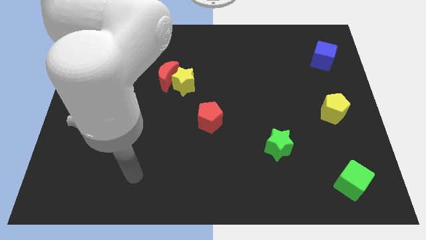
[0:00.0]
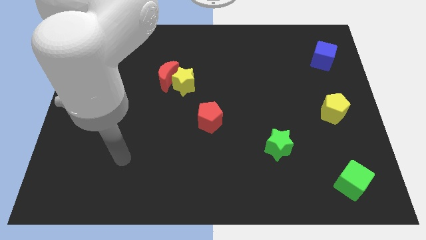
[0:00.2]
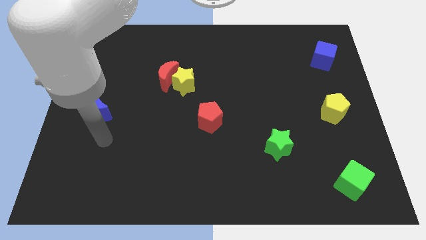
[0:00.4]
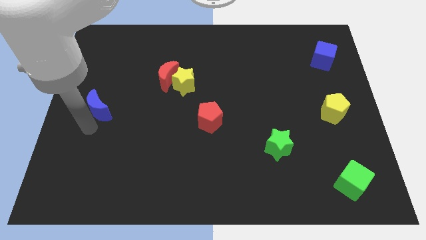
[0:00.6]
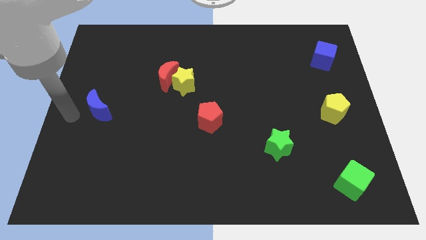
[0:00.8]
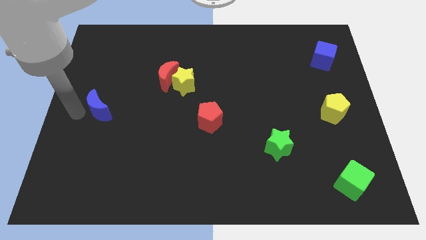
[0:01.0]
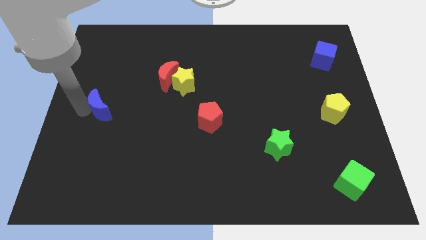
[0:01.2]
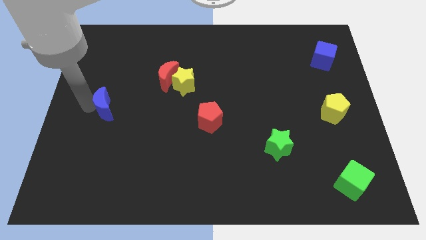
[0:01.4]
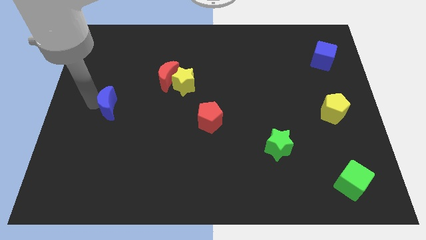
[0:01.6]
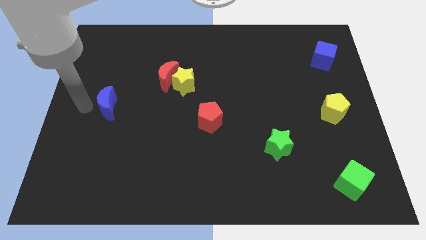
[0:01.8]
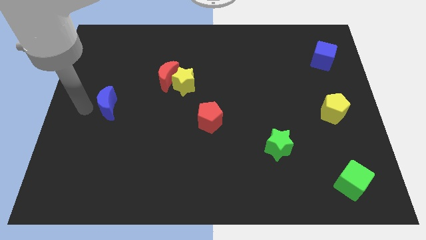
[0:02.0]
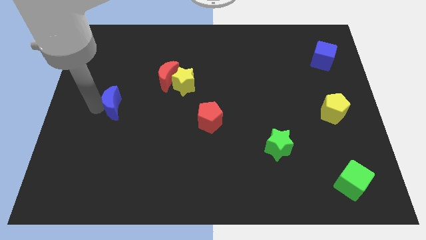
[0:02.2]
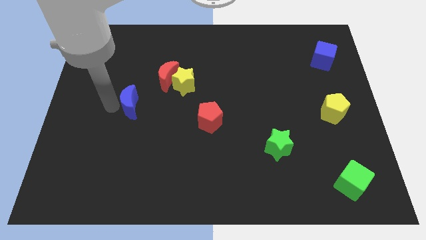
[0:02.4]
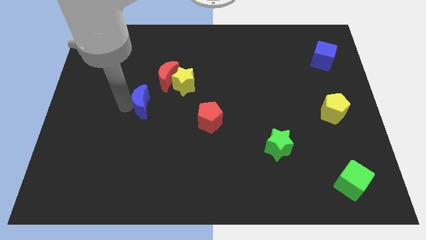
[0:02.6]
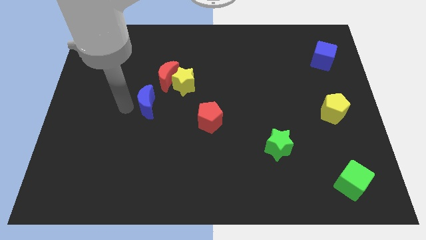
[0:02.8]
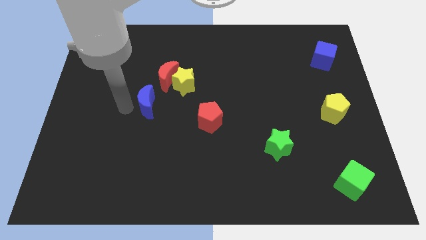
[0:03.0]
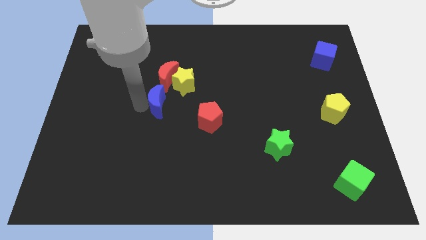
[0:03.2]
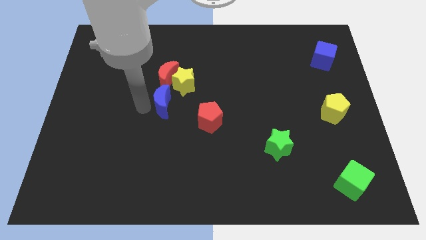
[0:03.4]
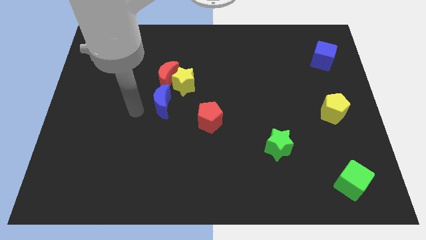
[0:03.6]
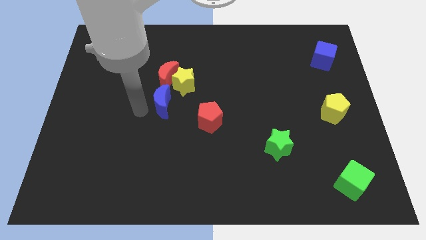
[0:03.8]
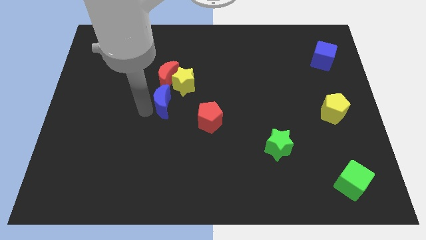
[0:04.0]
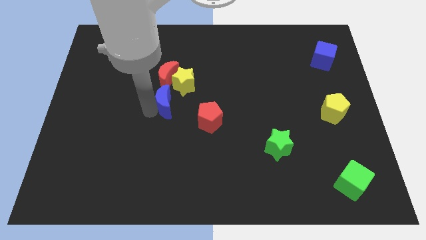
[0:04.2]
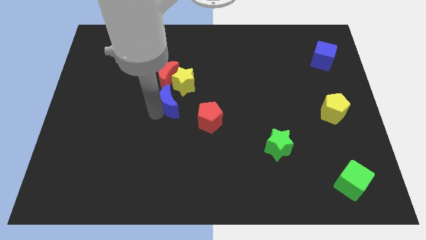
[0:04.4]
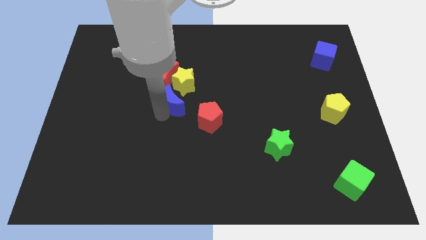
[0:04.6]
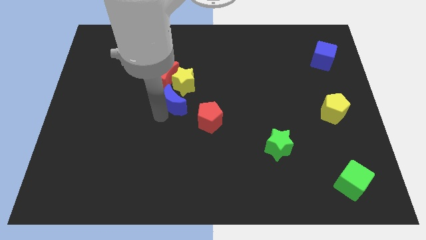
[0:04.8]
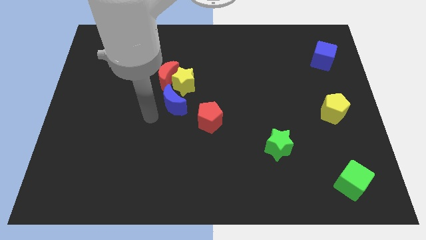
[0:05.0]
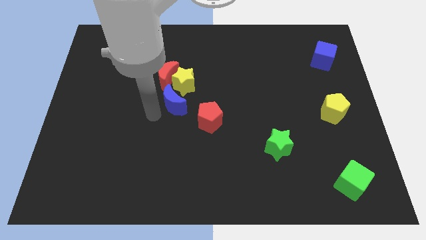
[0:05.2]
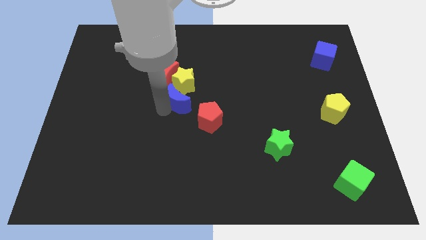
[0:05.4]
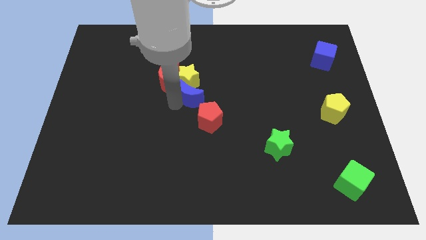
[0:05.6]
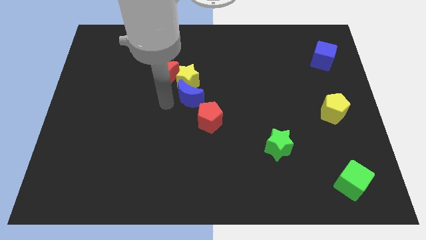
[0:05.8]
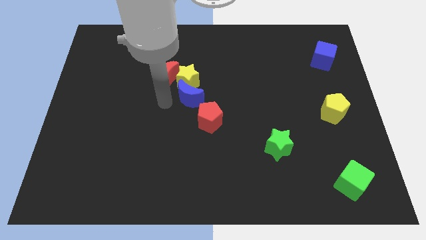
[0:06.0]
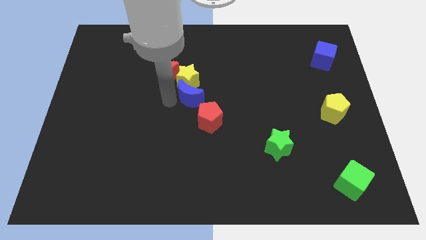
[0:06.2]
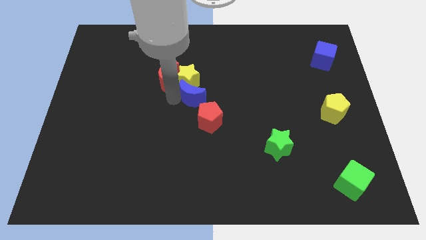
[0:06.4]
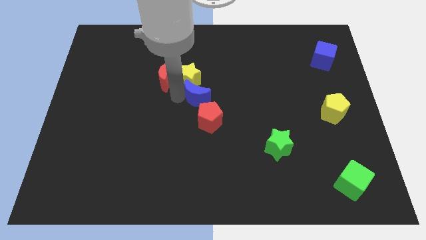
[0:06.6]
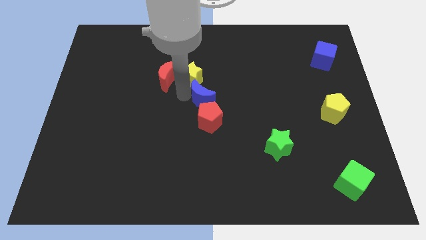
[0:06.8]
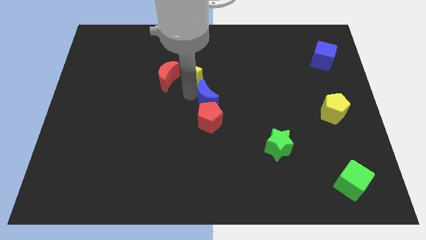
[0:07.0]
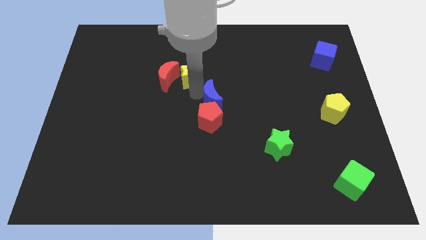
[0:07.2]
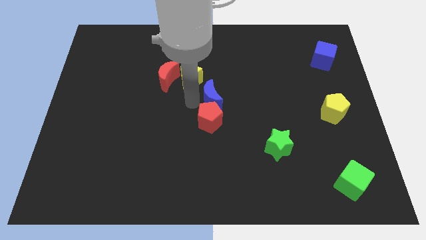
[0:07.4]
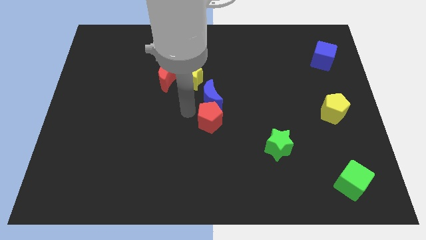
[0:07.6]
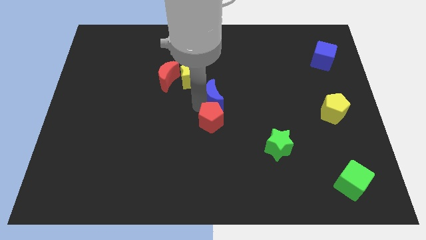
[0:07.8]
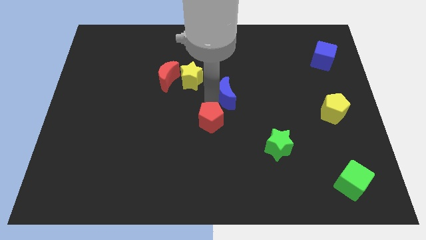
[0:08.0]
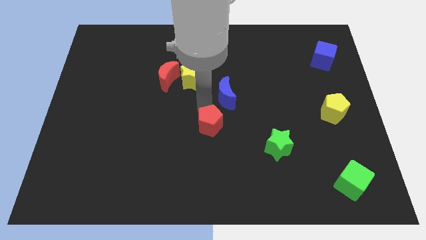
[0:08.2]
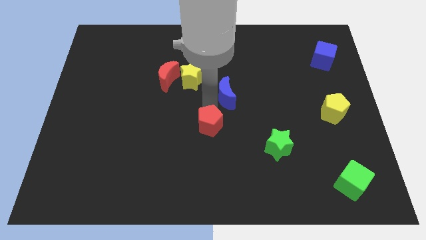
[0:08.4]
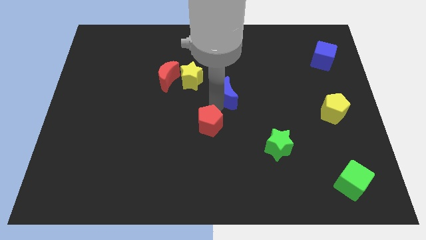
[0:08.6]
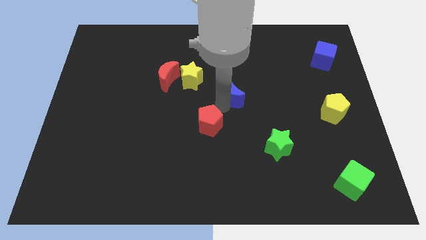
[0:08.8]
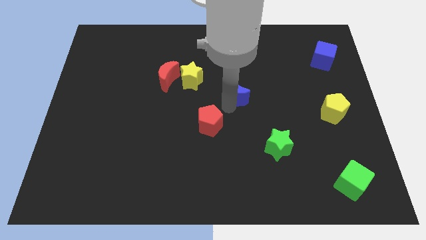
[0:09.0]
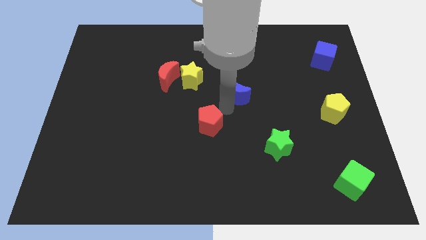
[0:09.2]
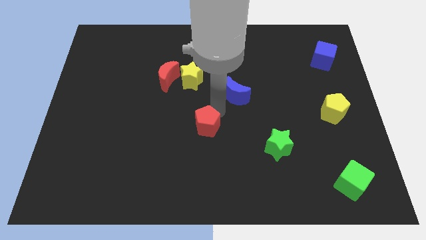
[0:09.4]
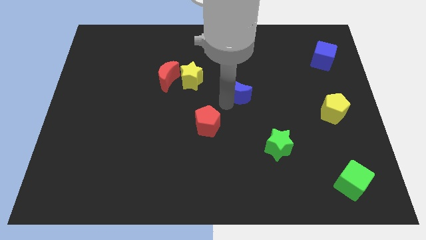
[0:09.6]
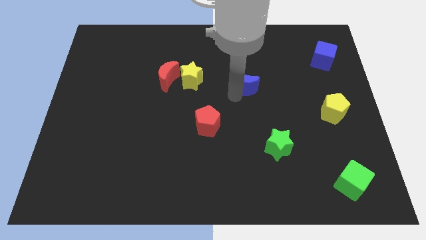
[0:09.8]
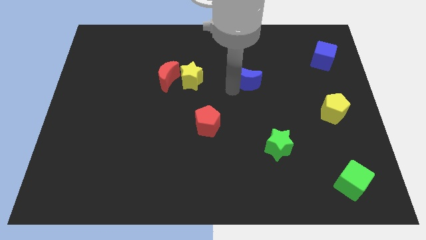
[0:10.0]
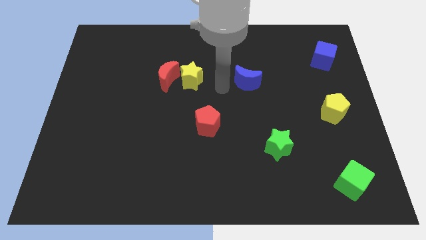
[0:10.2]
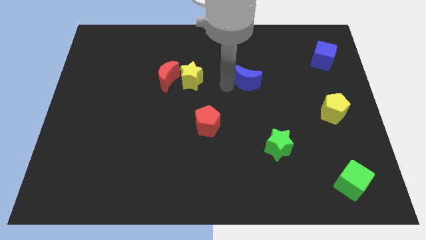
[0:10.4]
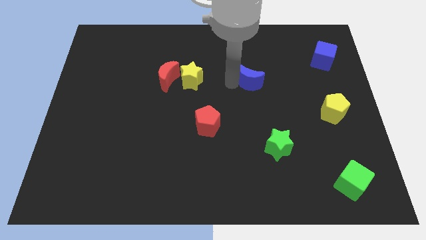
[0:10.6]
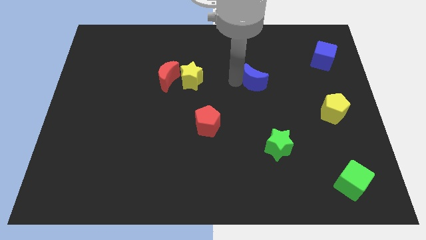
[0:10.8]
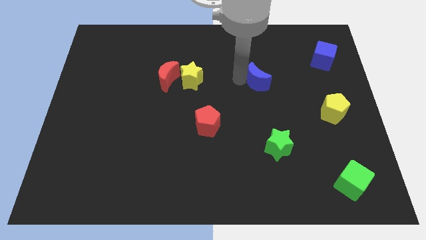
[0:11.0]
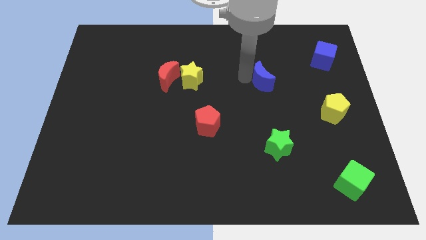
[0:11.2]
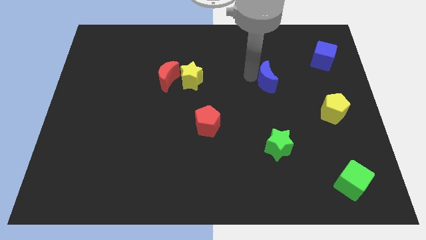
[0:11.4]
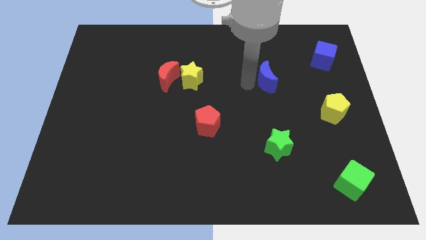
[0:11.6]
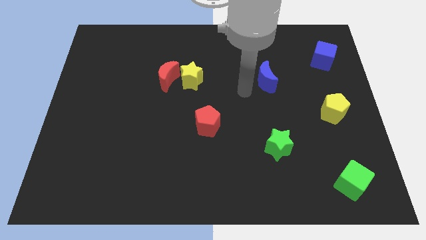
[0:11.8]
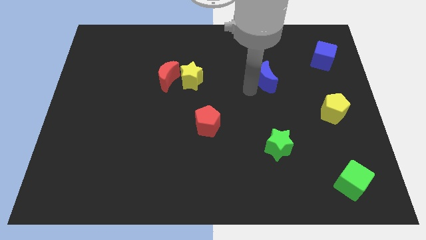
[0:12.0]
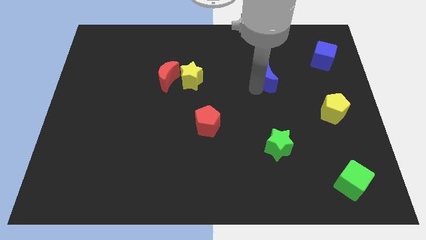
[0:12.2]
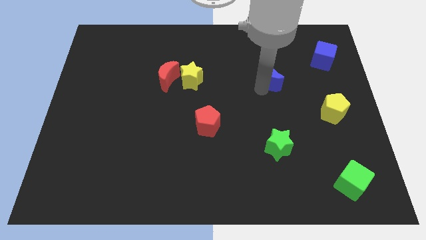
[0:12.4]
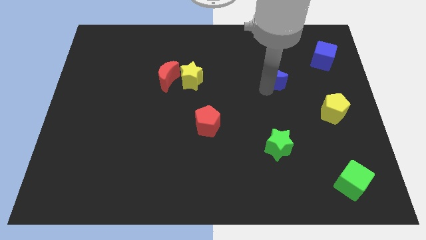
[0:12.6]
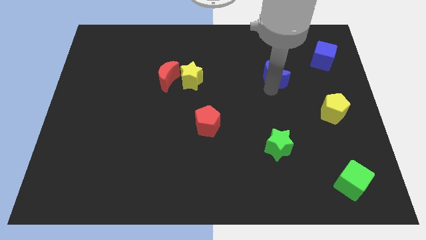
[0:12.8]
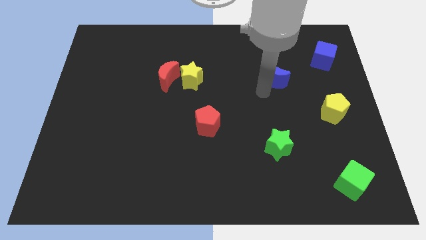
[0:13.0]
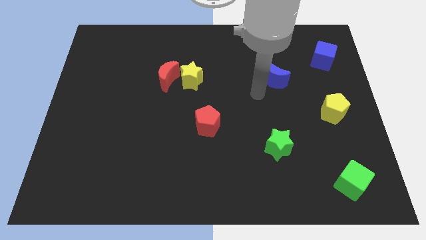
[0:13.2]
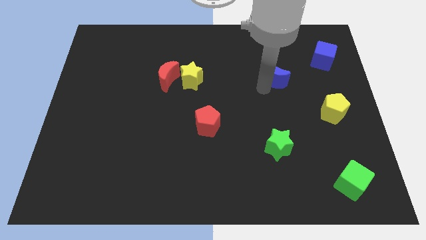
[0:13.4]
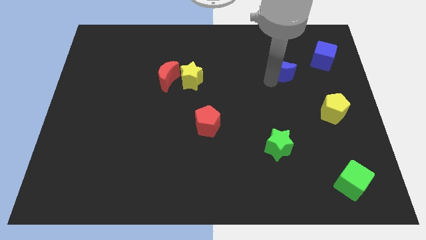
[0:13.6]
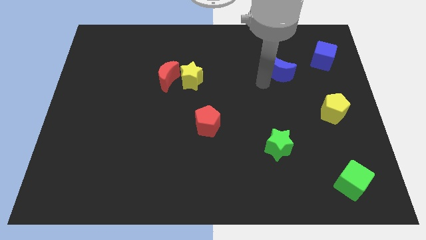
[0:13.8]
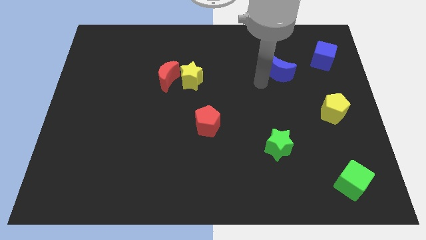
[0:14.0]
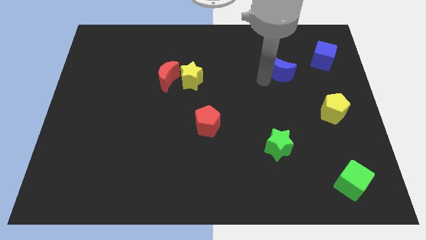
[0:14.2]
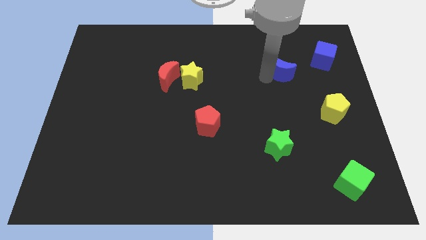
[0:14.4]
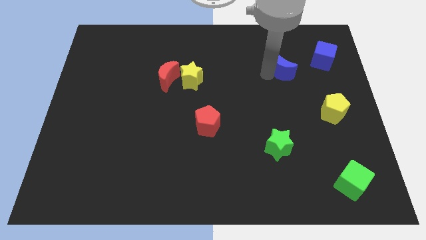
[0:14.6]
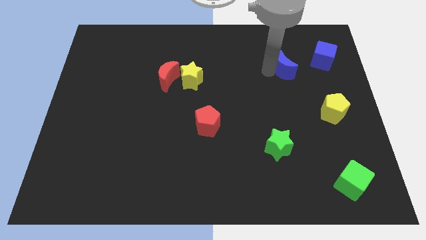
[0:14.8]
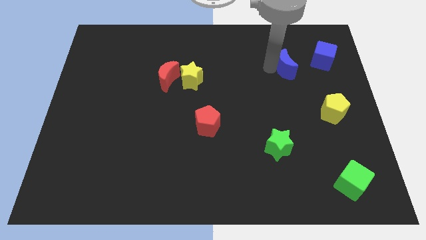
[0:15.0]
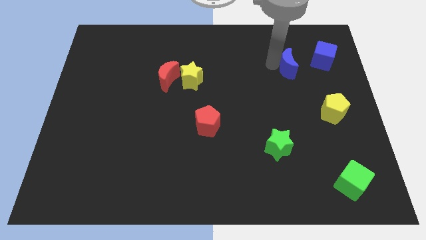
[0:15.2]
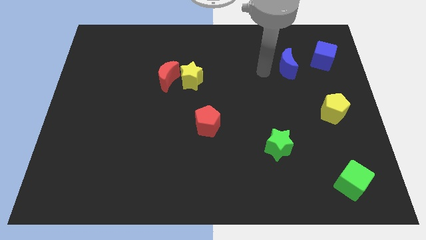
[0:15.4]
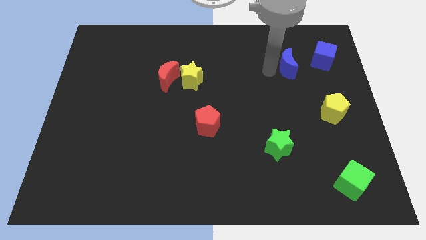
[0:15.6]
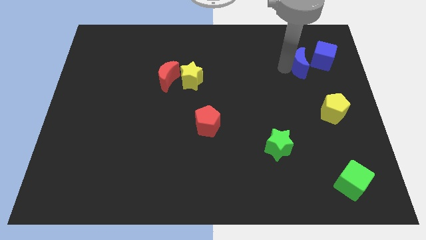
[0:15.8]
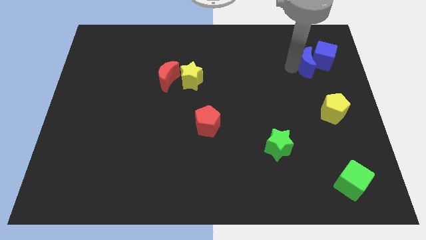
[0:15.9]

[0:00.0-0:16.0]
push the blue moon close to the blue cube
